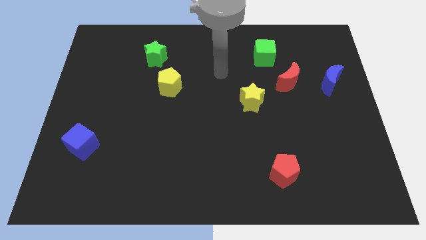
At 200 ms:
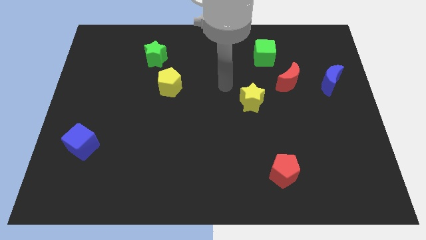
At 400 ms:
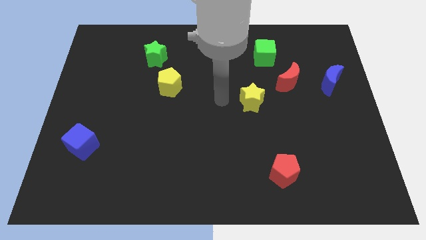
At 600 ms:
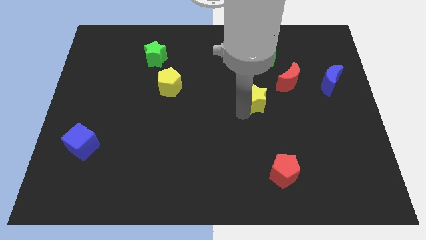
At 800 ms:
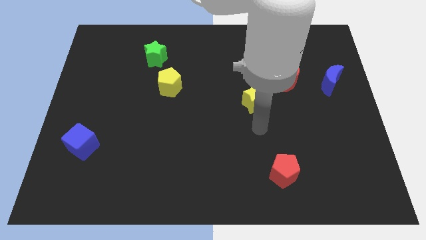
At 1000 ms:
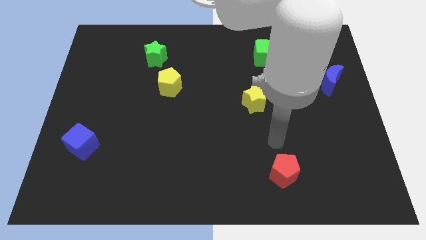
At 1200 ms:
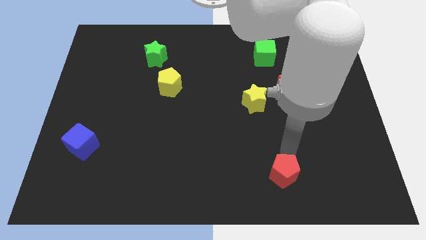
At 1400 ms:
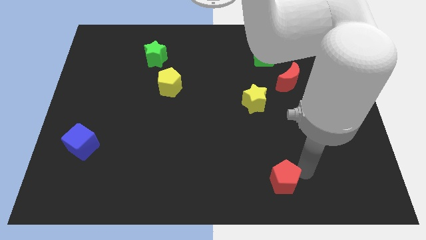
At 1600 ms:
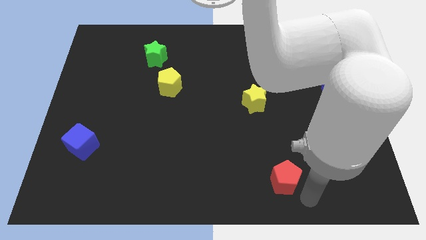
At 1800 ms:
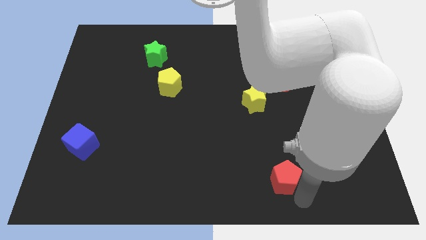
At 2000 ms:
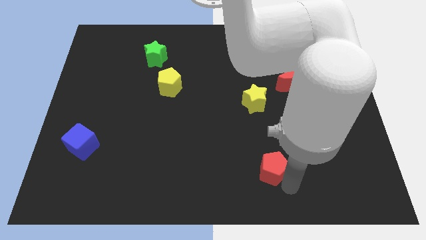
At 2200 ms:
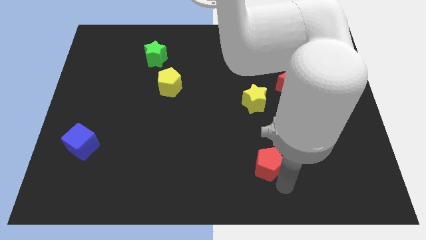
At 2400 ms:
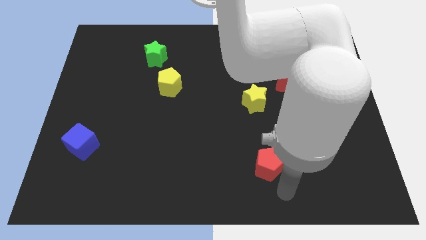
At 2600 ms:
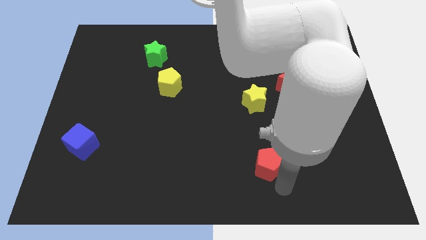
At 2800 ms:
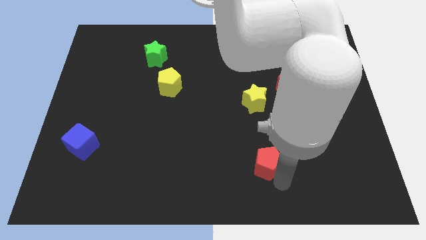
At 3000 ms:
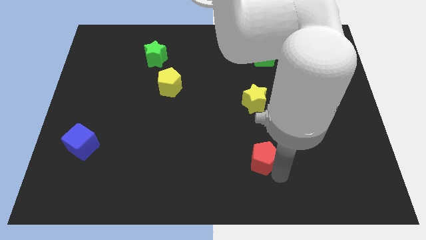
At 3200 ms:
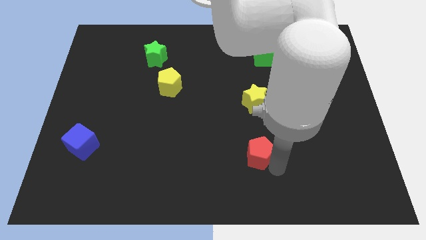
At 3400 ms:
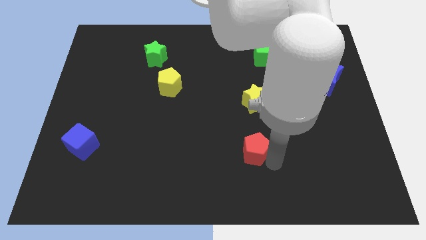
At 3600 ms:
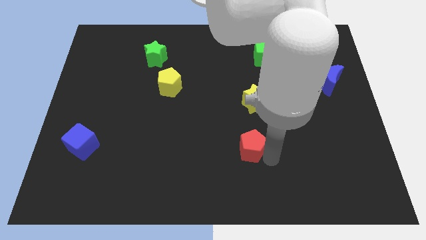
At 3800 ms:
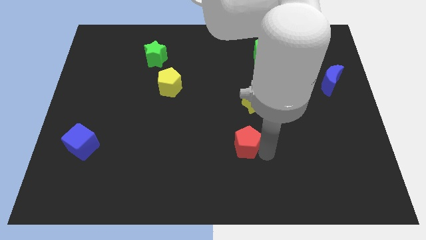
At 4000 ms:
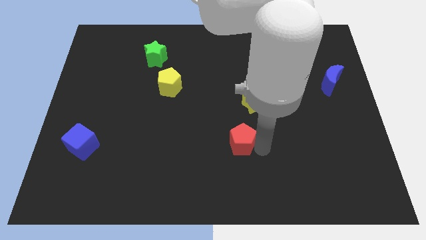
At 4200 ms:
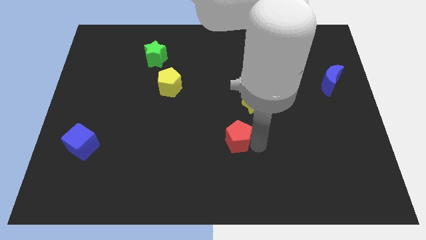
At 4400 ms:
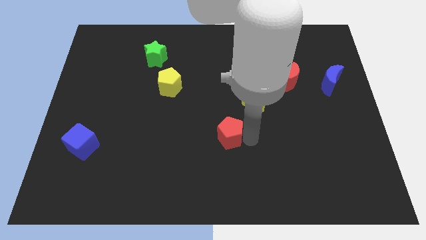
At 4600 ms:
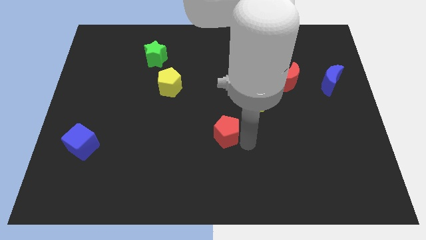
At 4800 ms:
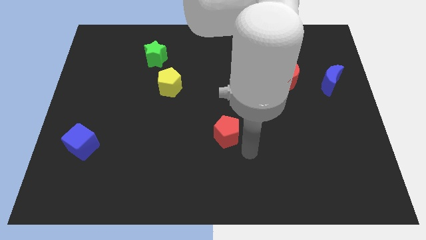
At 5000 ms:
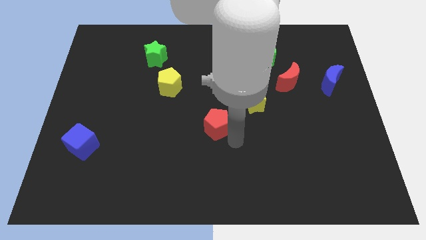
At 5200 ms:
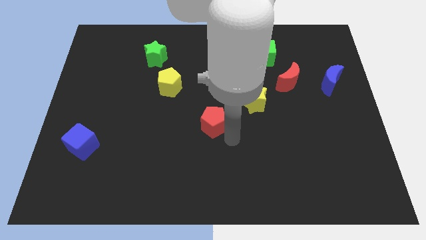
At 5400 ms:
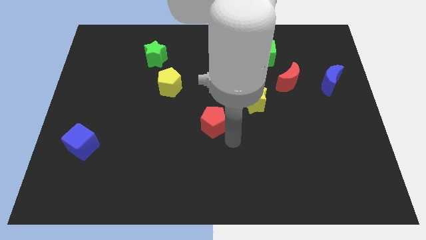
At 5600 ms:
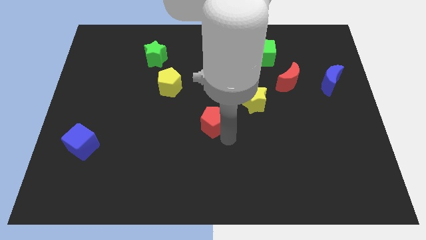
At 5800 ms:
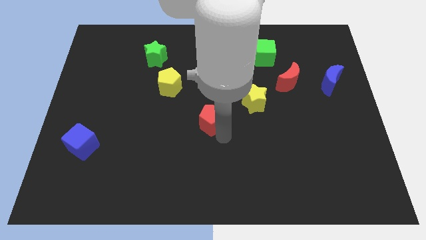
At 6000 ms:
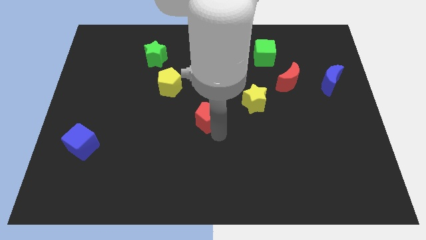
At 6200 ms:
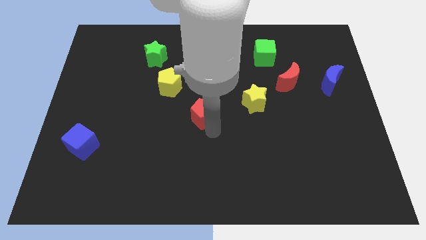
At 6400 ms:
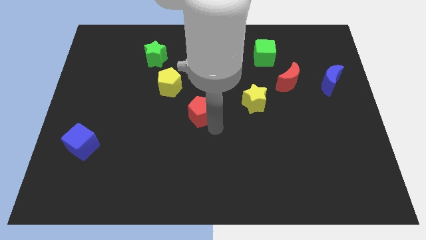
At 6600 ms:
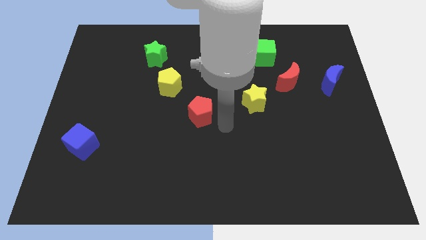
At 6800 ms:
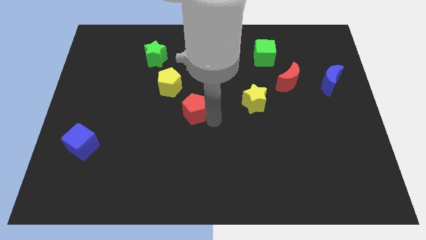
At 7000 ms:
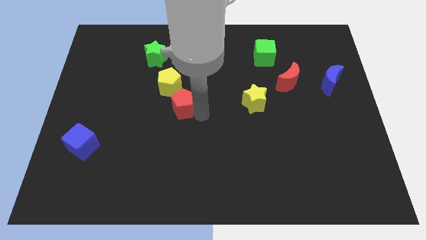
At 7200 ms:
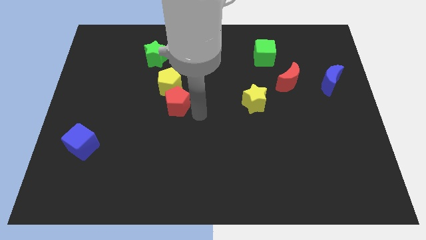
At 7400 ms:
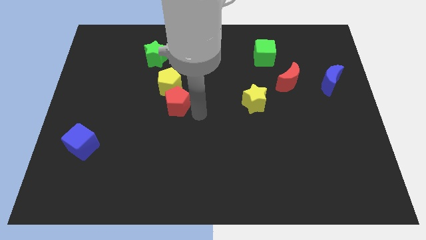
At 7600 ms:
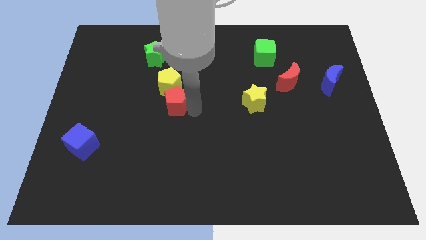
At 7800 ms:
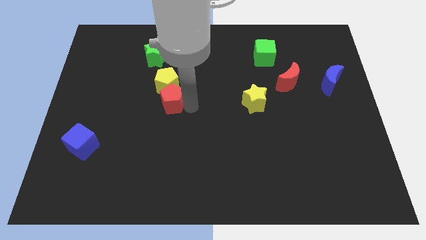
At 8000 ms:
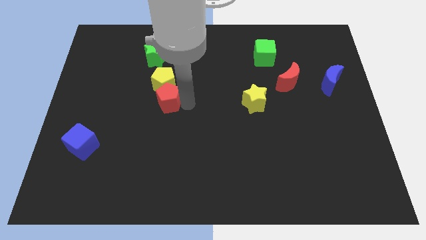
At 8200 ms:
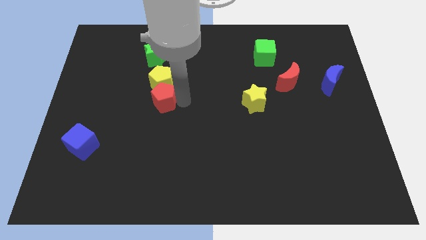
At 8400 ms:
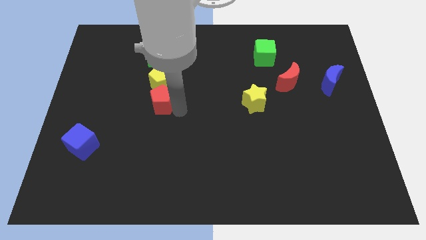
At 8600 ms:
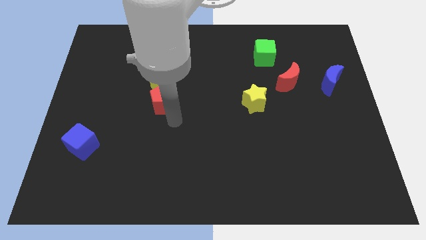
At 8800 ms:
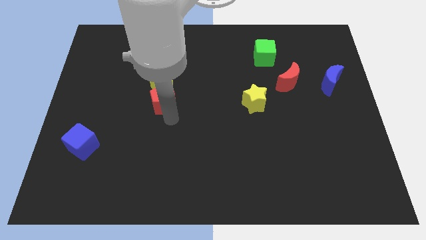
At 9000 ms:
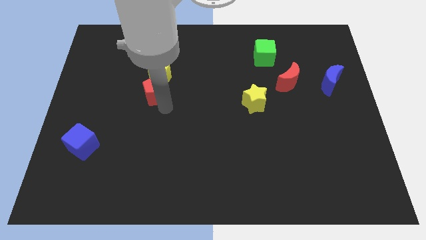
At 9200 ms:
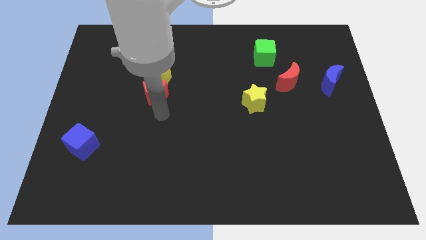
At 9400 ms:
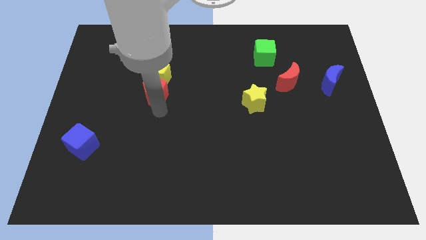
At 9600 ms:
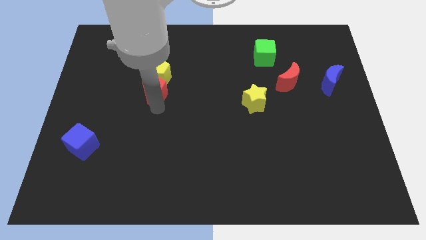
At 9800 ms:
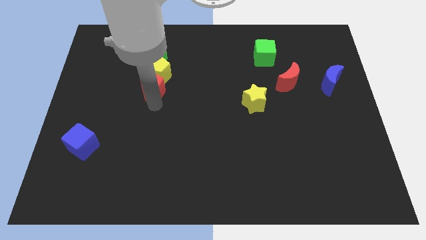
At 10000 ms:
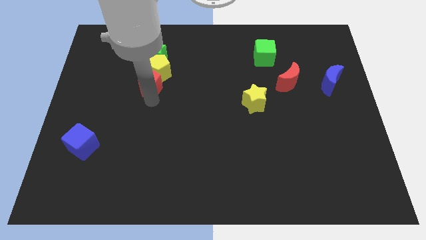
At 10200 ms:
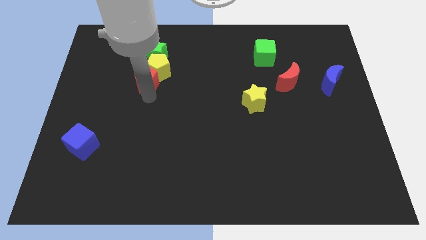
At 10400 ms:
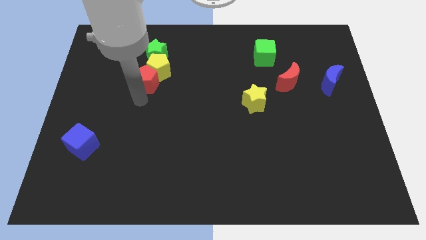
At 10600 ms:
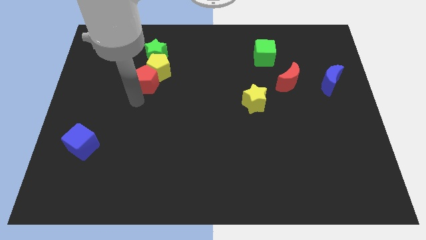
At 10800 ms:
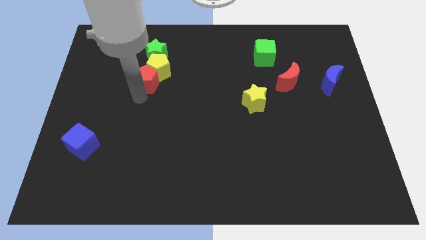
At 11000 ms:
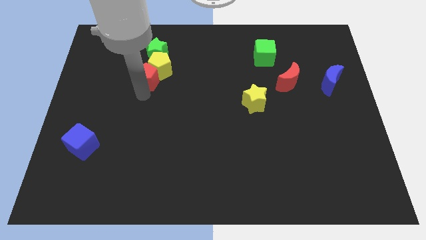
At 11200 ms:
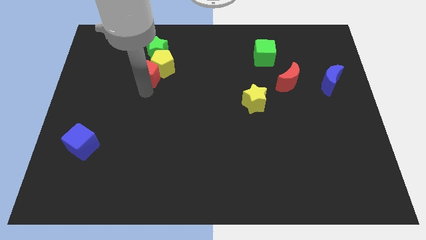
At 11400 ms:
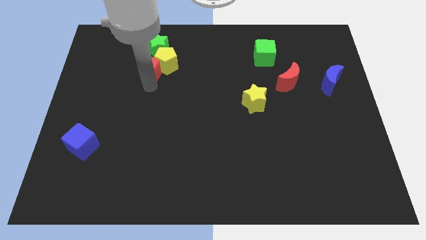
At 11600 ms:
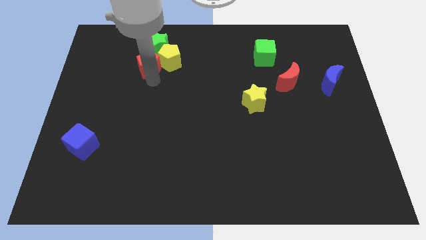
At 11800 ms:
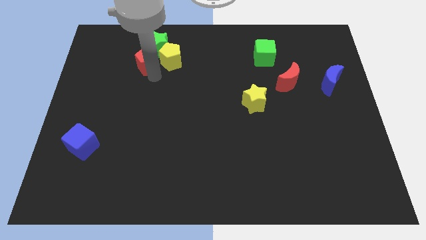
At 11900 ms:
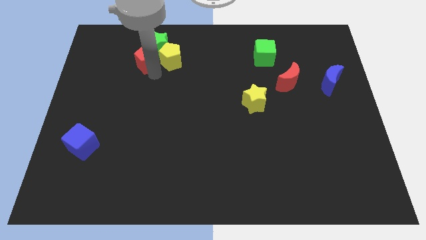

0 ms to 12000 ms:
slide the red pentagon towards the green star

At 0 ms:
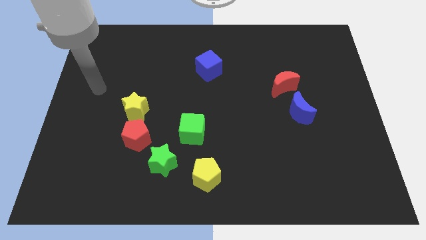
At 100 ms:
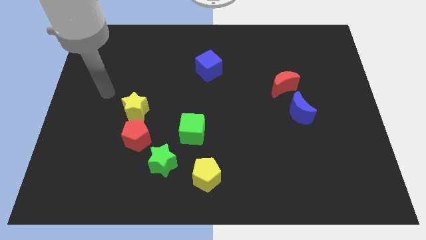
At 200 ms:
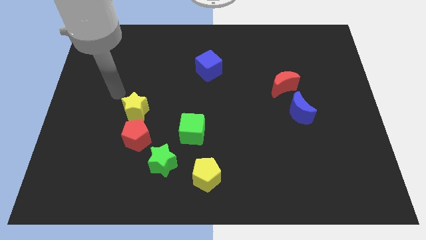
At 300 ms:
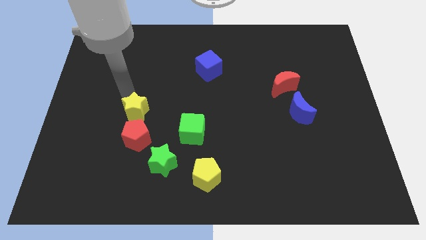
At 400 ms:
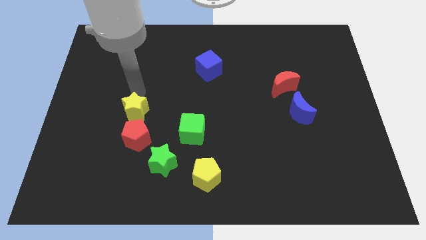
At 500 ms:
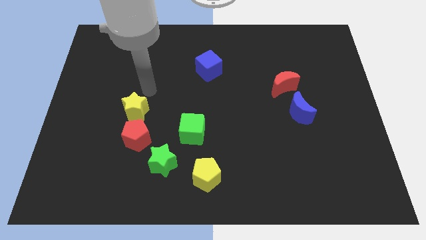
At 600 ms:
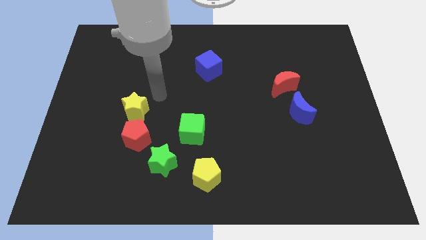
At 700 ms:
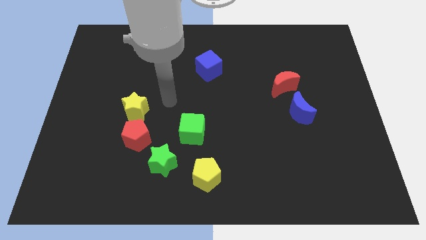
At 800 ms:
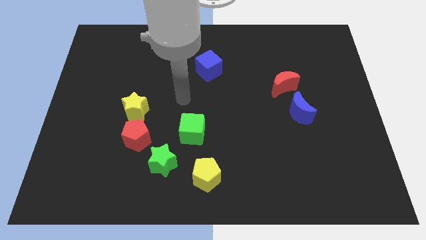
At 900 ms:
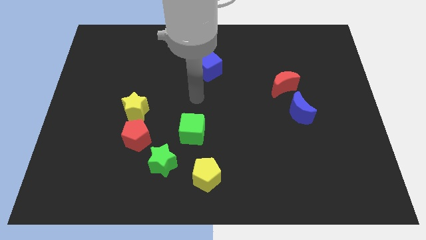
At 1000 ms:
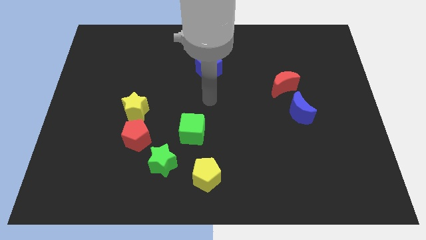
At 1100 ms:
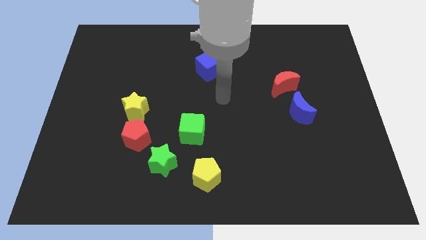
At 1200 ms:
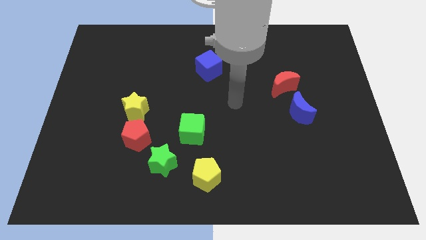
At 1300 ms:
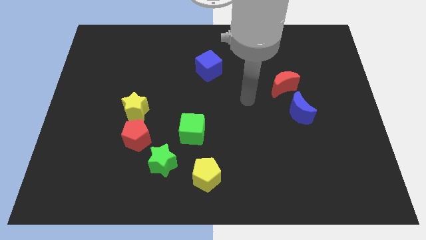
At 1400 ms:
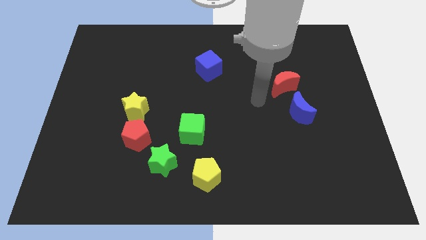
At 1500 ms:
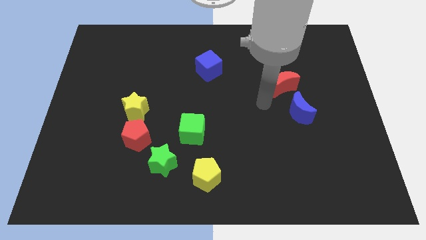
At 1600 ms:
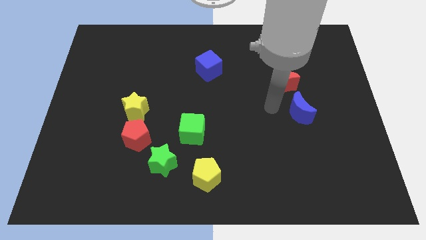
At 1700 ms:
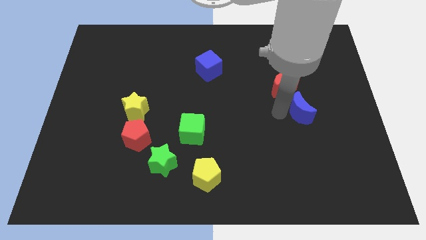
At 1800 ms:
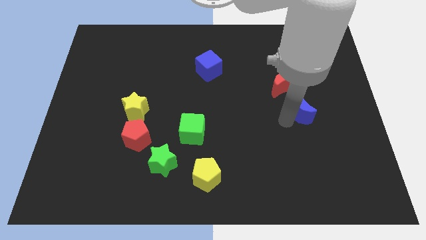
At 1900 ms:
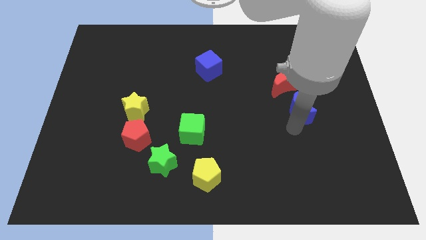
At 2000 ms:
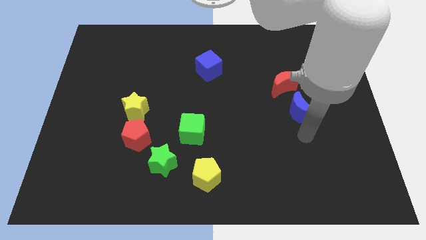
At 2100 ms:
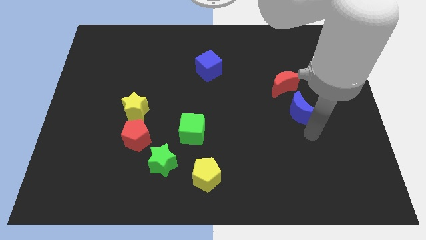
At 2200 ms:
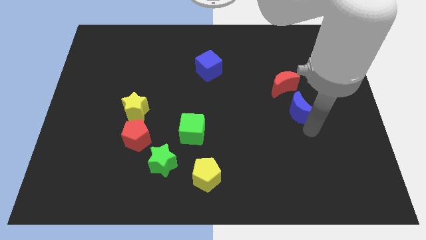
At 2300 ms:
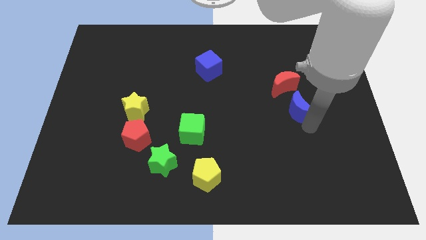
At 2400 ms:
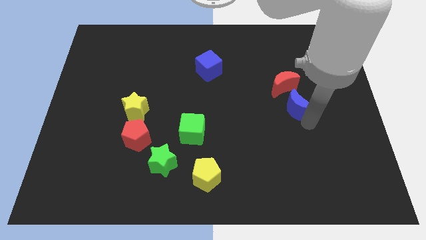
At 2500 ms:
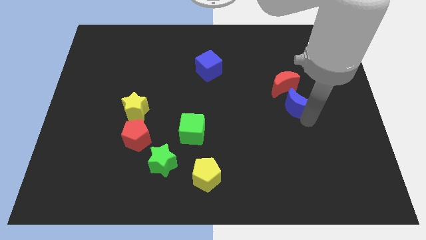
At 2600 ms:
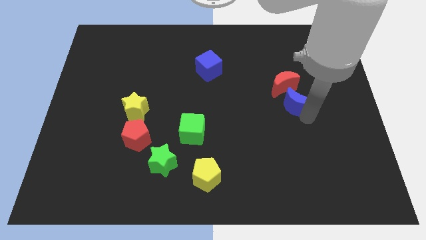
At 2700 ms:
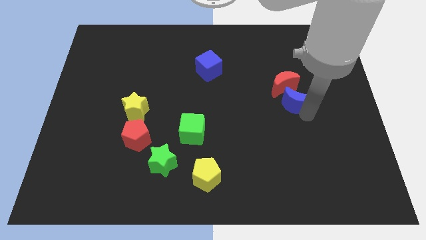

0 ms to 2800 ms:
push the blue moon next to the red moon

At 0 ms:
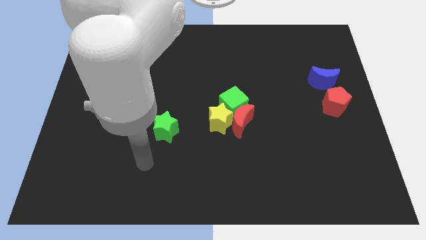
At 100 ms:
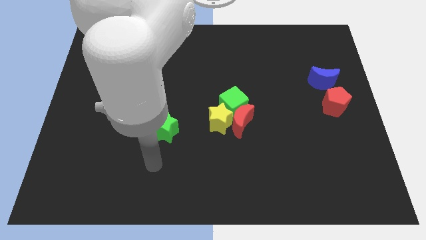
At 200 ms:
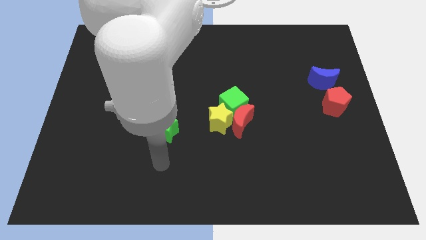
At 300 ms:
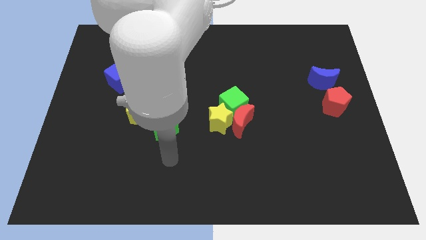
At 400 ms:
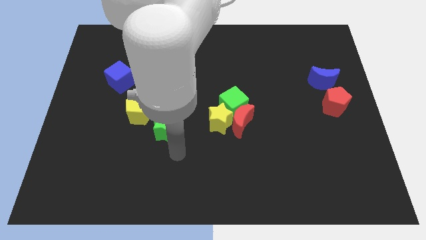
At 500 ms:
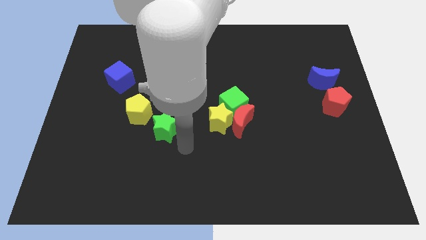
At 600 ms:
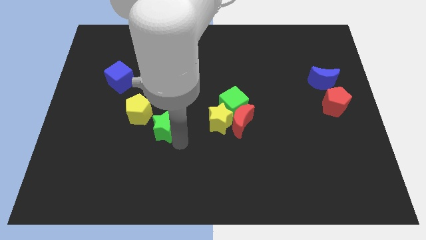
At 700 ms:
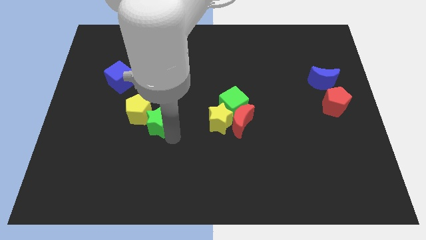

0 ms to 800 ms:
put the green star to the yellow pentagon
